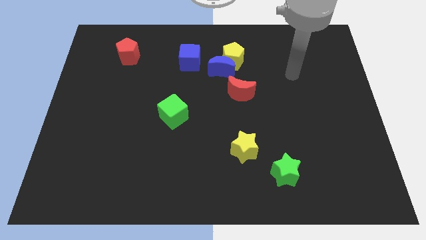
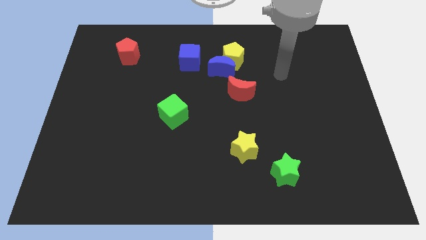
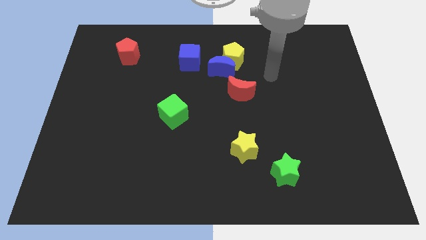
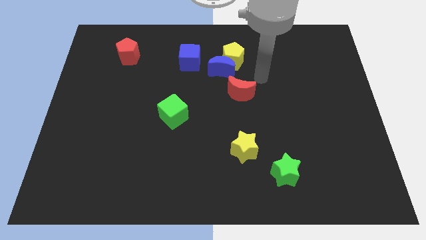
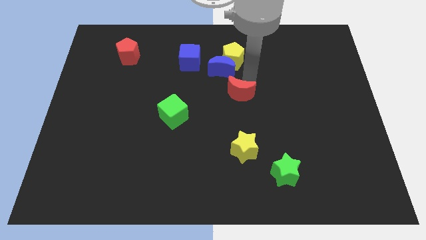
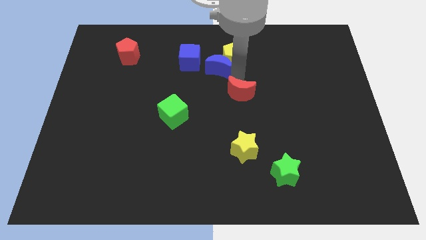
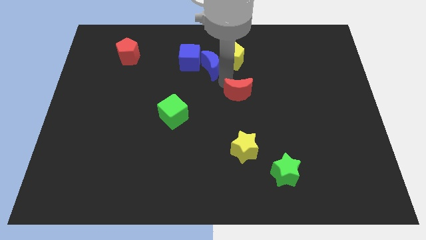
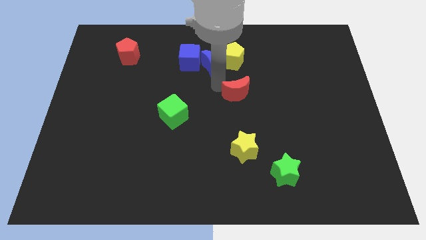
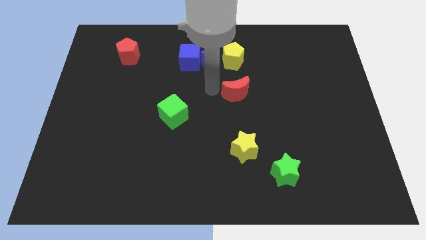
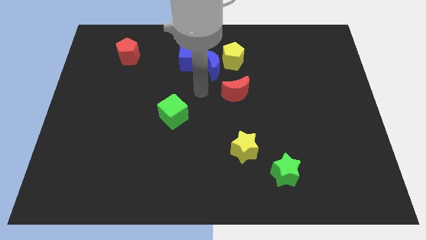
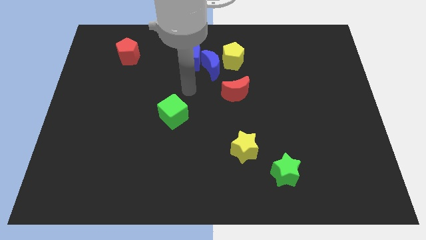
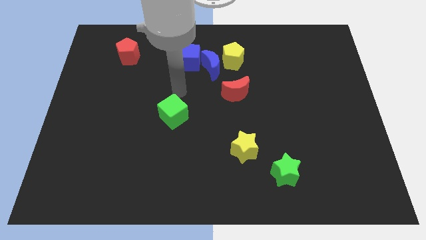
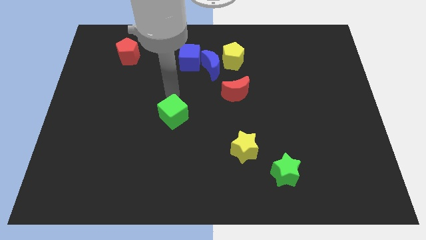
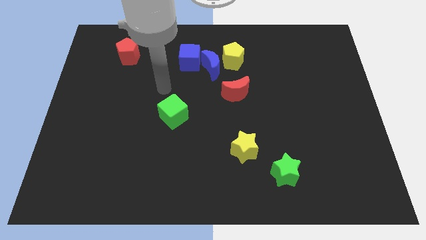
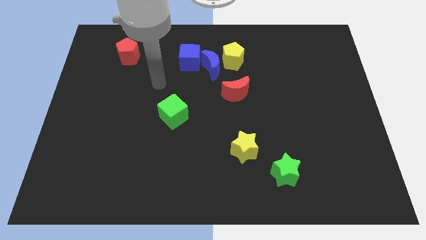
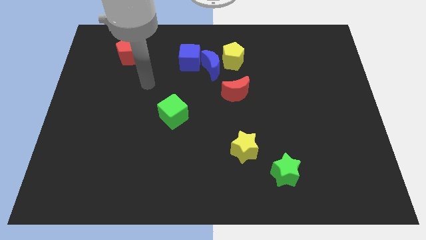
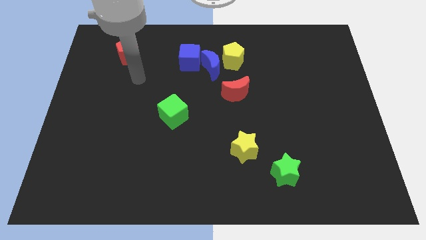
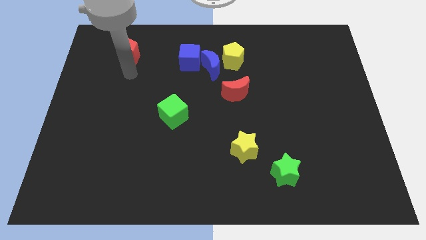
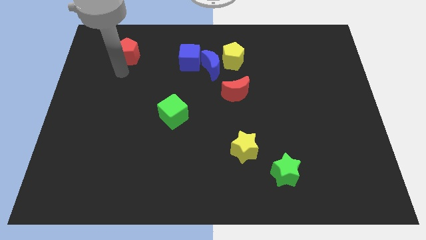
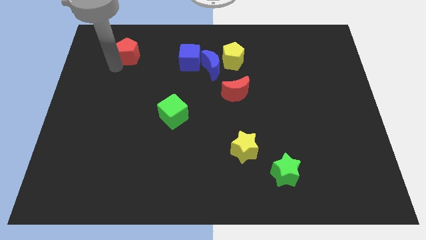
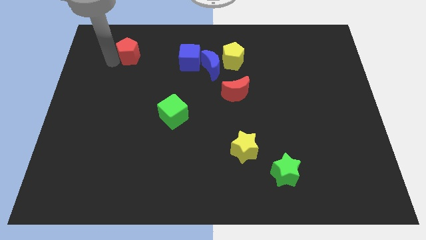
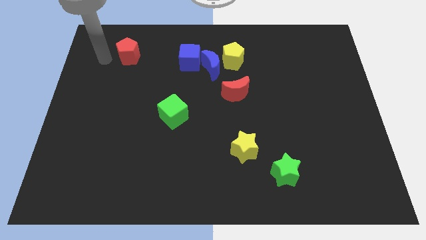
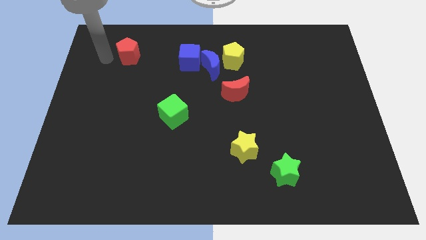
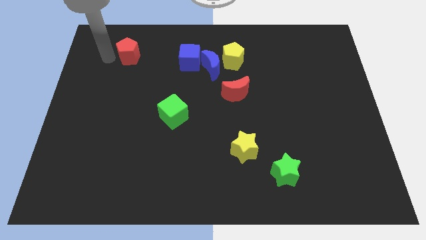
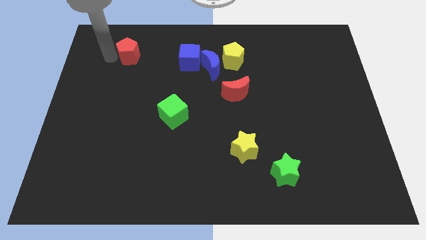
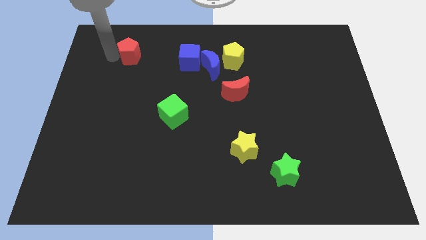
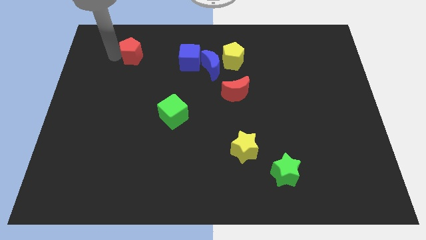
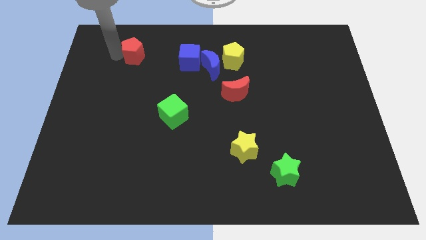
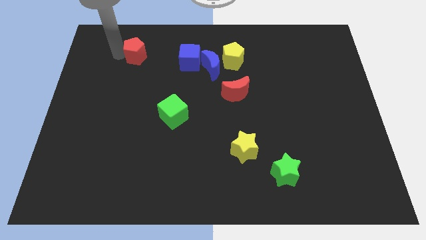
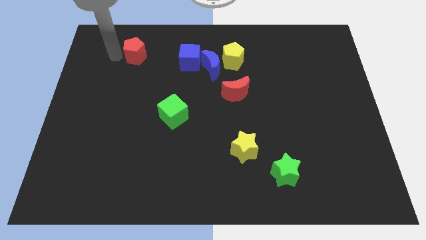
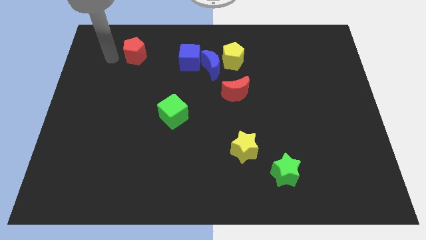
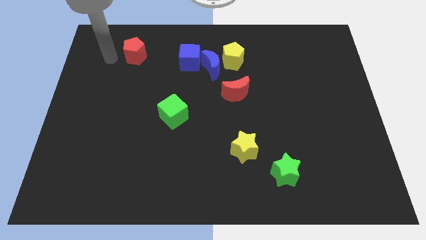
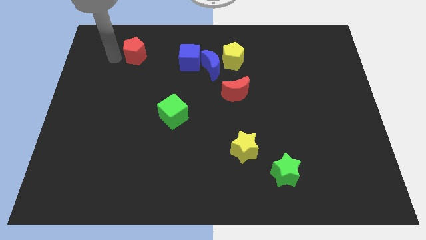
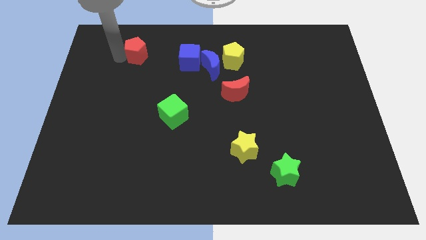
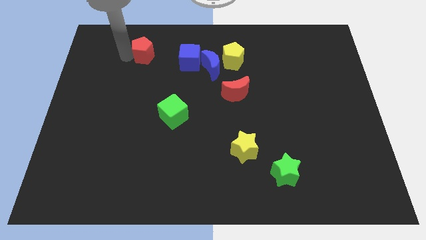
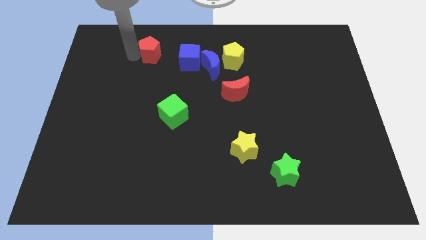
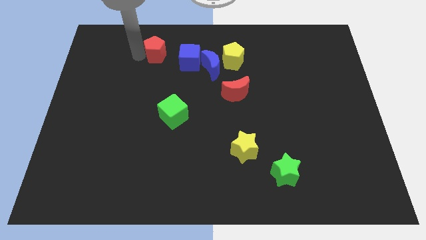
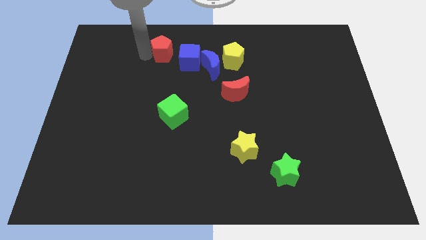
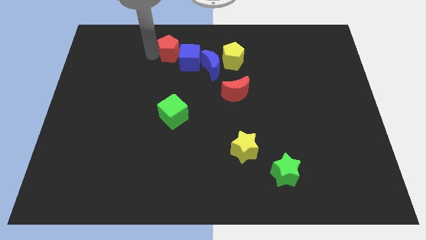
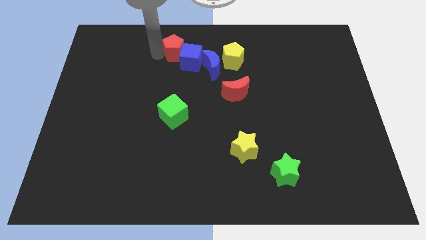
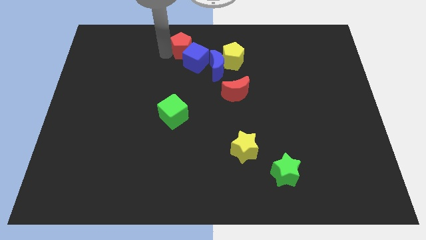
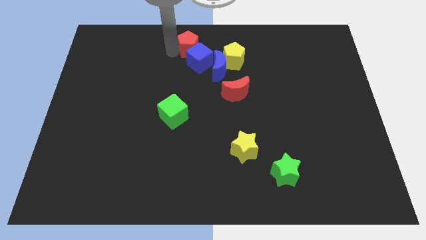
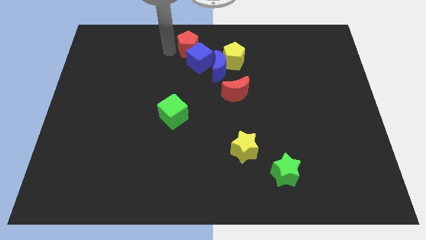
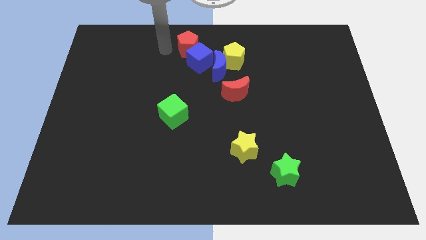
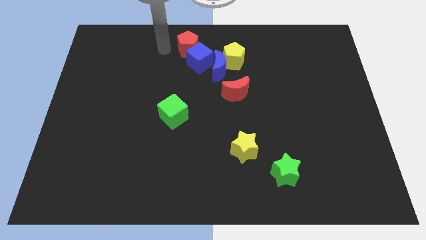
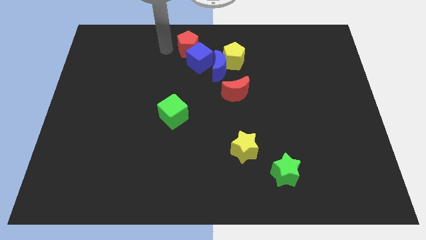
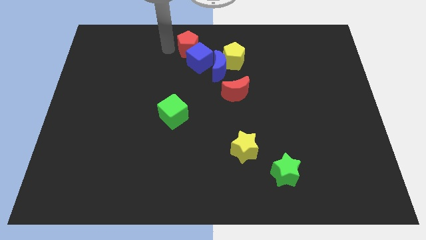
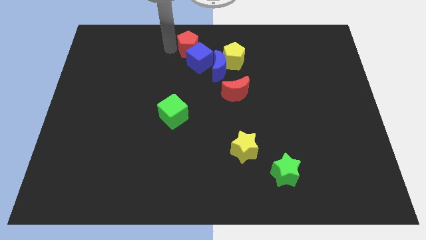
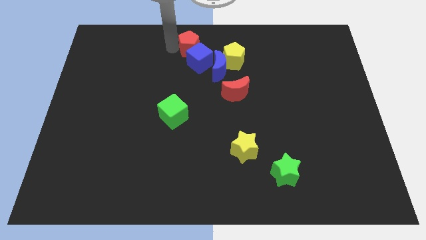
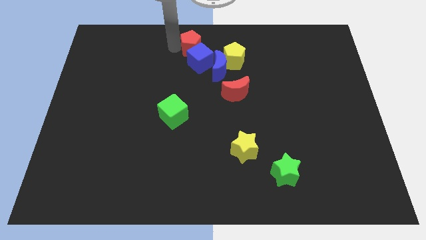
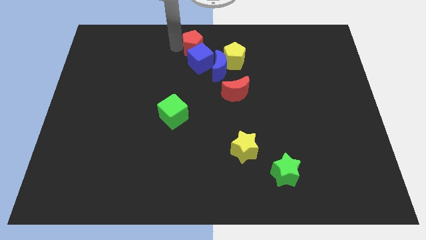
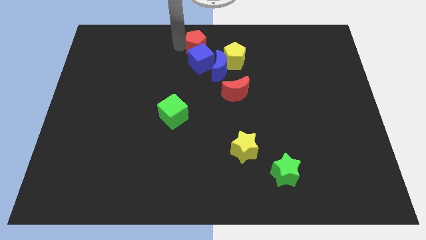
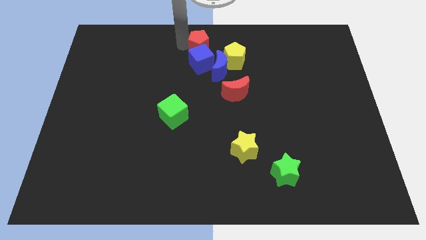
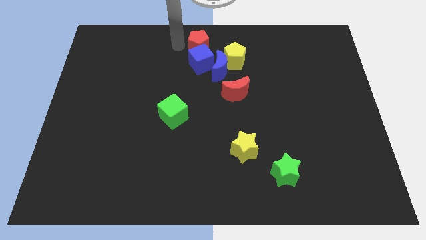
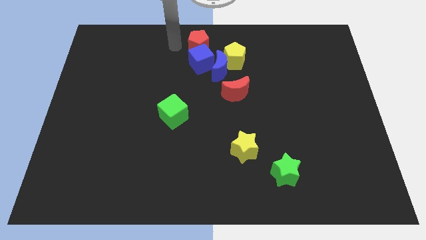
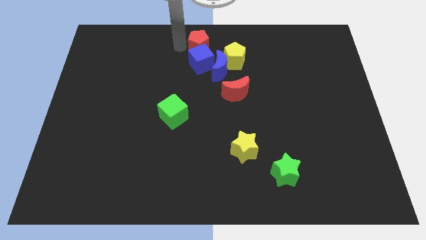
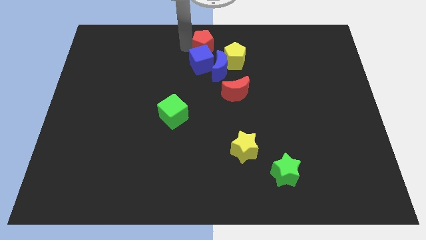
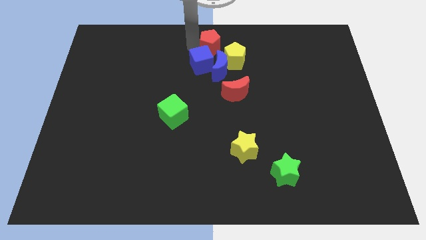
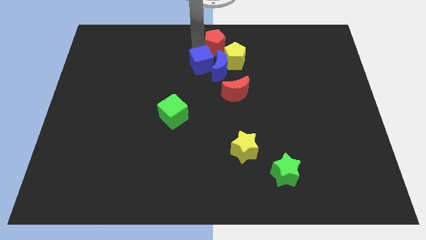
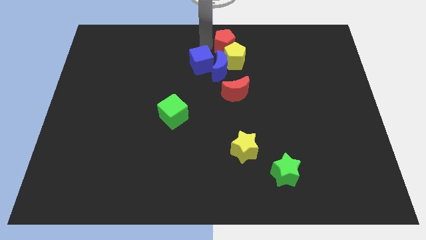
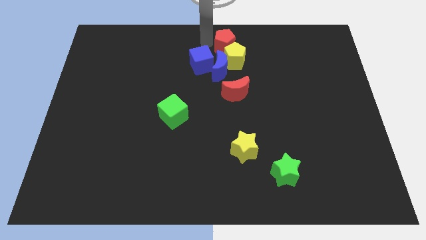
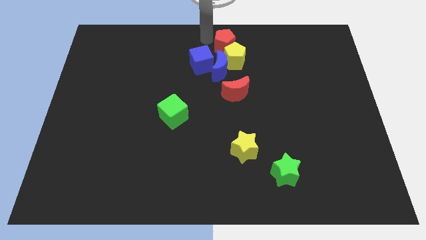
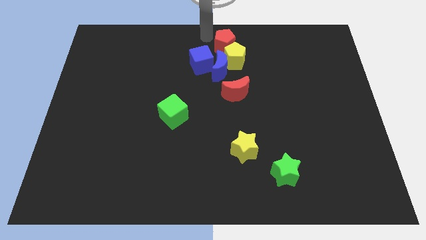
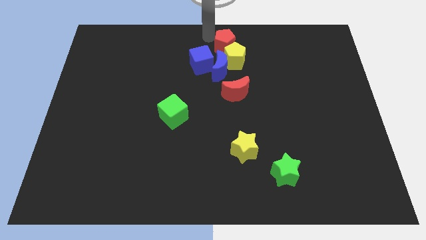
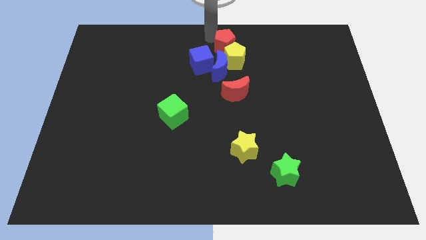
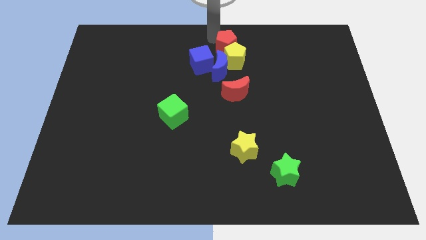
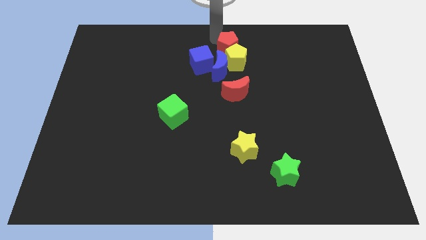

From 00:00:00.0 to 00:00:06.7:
move the red pentagon to the top right side of the blue moon
